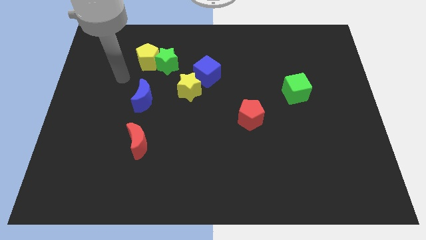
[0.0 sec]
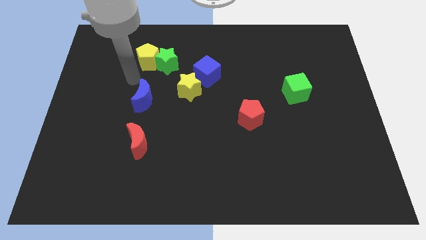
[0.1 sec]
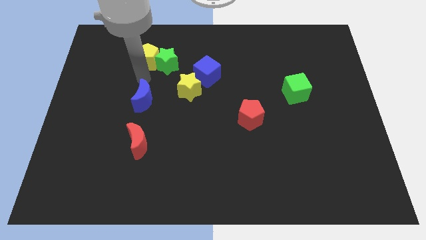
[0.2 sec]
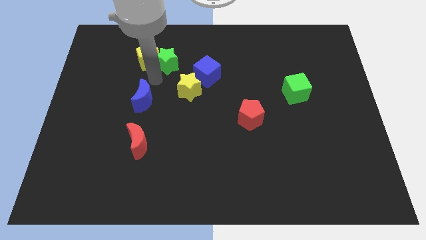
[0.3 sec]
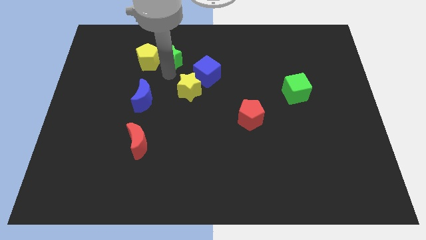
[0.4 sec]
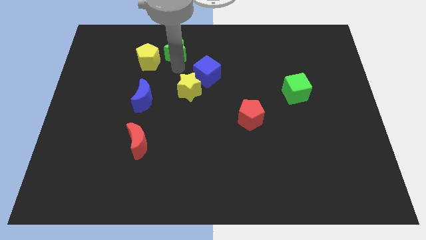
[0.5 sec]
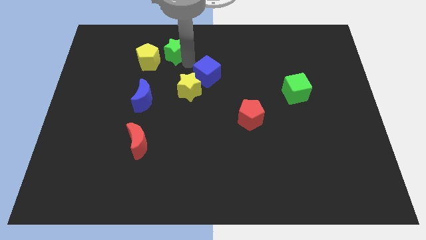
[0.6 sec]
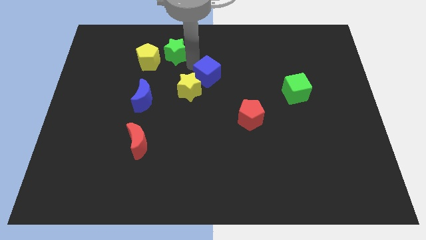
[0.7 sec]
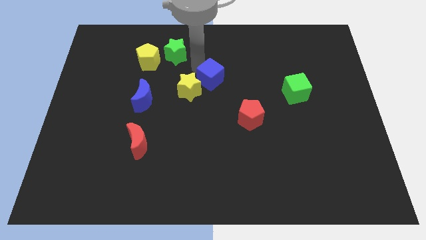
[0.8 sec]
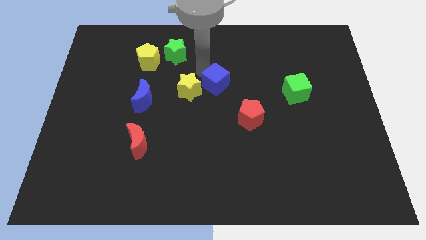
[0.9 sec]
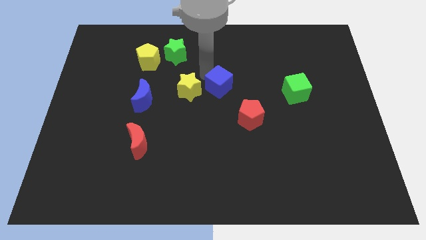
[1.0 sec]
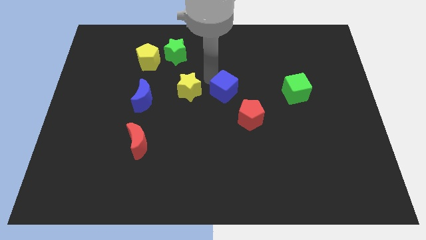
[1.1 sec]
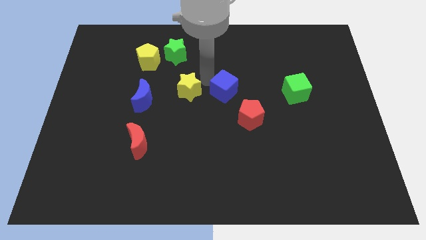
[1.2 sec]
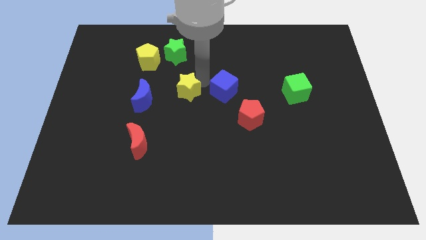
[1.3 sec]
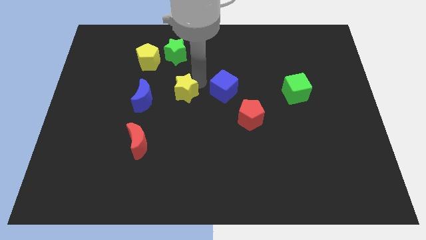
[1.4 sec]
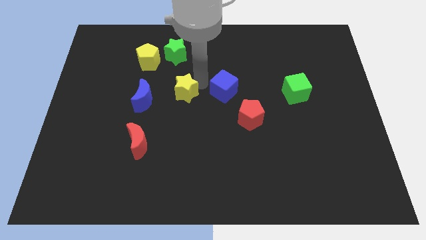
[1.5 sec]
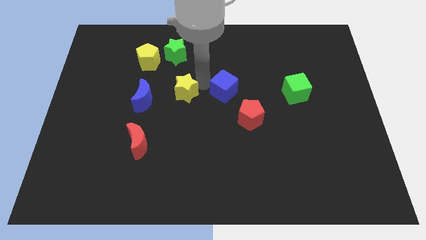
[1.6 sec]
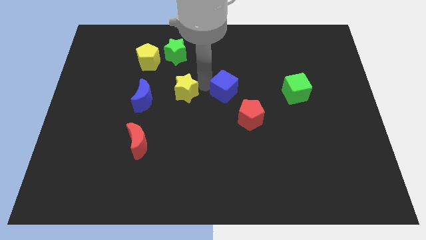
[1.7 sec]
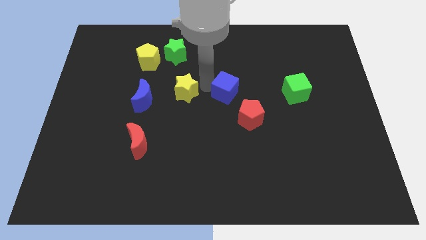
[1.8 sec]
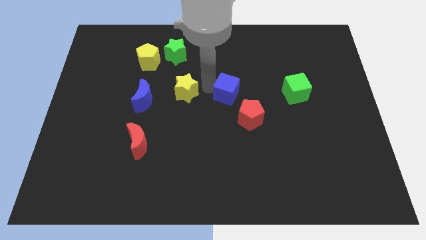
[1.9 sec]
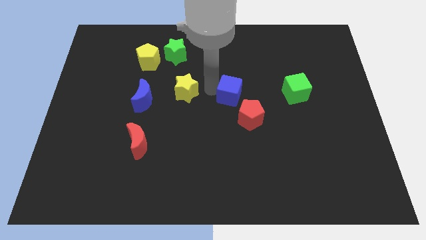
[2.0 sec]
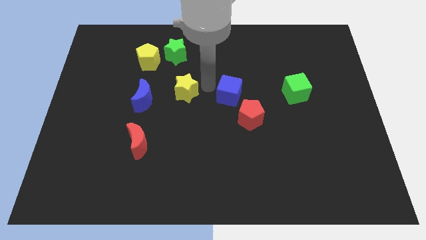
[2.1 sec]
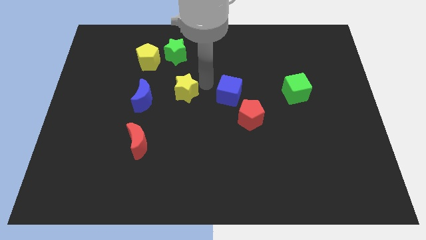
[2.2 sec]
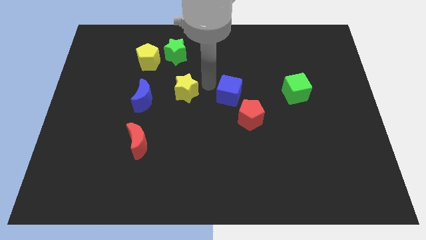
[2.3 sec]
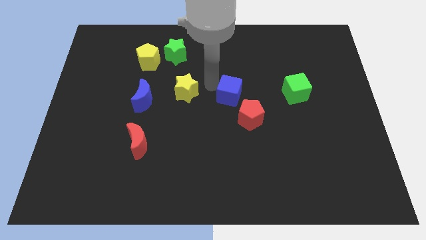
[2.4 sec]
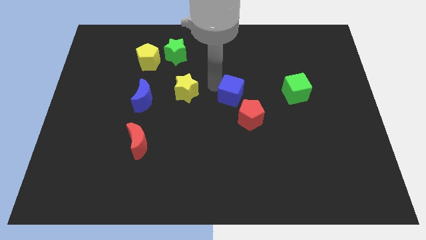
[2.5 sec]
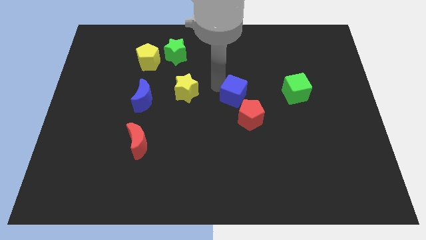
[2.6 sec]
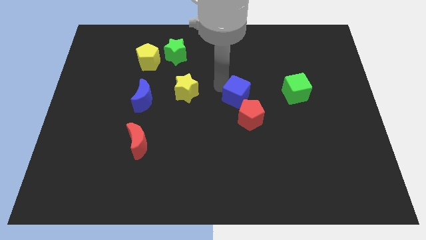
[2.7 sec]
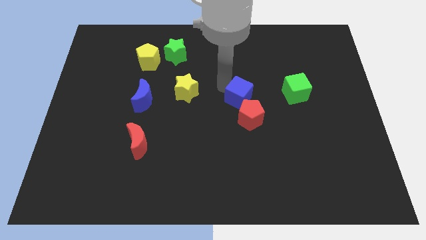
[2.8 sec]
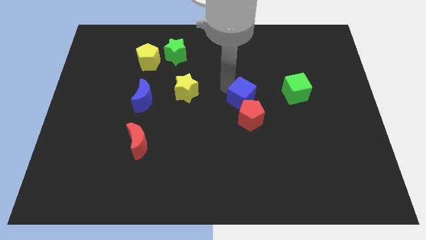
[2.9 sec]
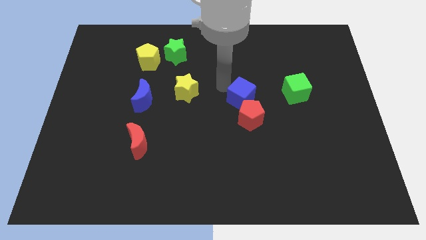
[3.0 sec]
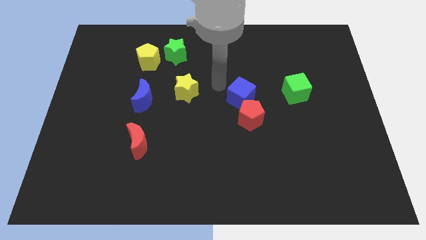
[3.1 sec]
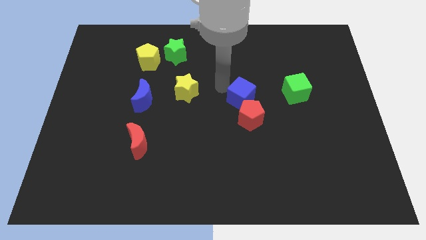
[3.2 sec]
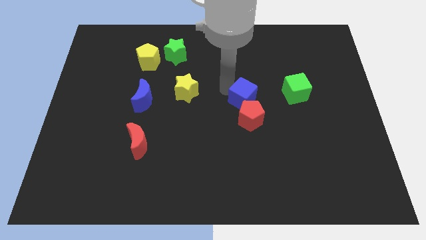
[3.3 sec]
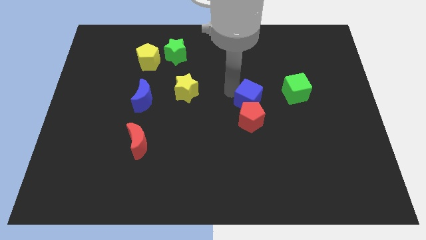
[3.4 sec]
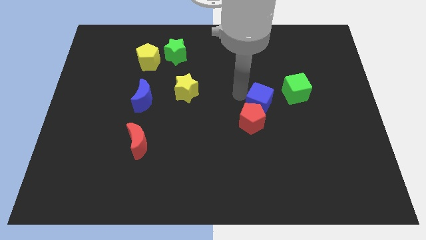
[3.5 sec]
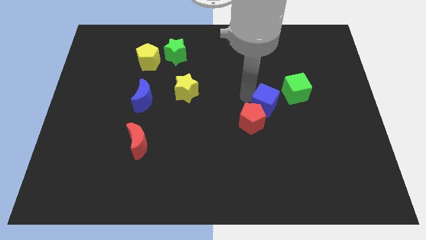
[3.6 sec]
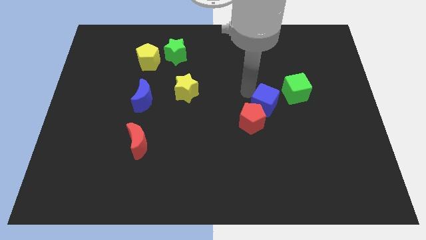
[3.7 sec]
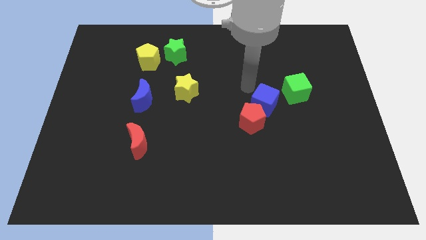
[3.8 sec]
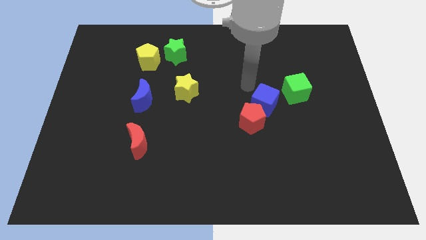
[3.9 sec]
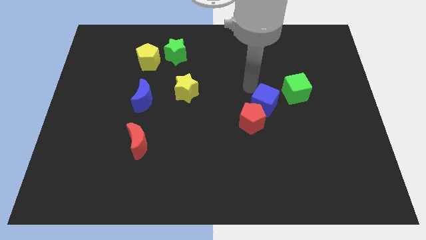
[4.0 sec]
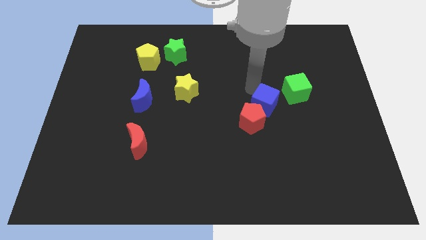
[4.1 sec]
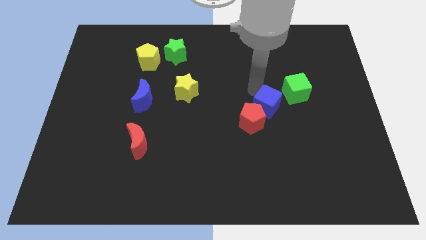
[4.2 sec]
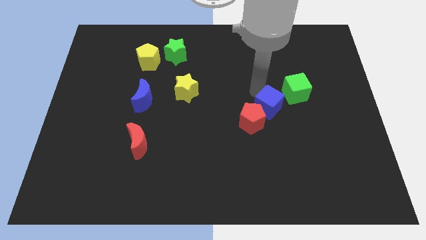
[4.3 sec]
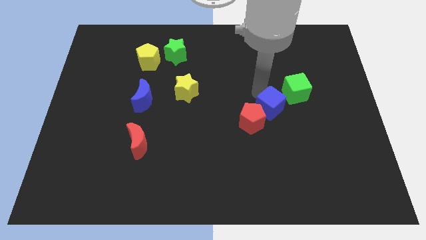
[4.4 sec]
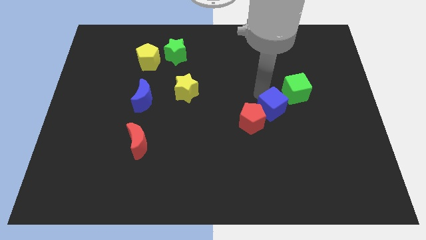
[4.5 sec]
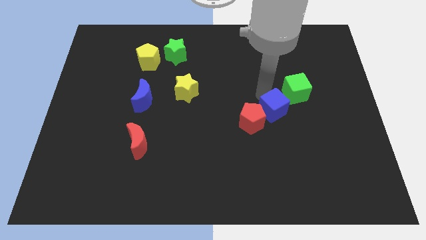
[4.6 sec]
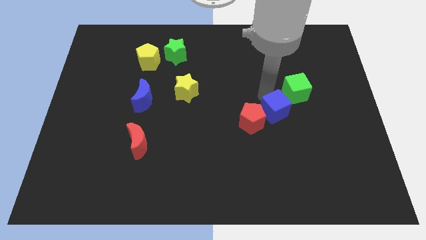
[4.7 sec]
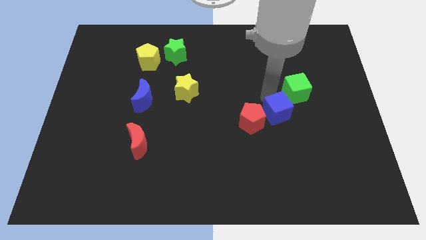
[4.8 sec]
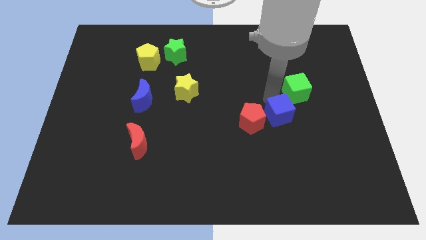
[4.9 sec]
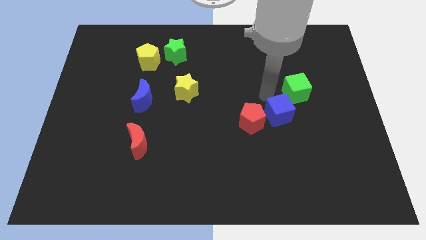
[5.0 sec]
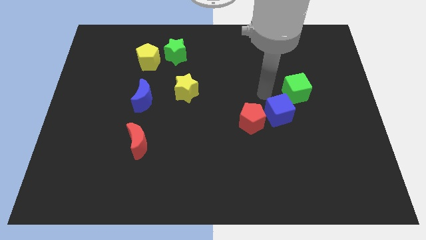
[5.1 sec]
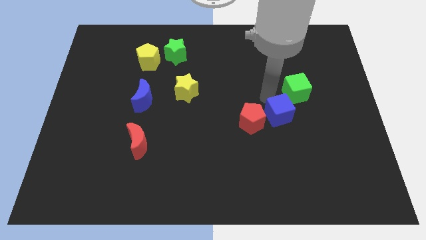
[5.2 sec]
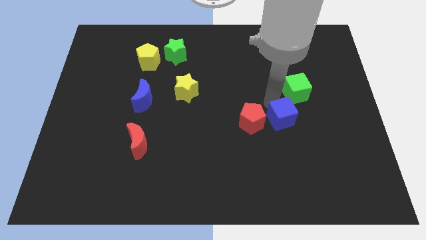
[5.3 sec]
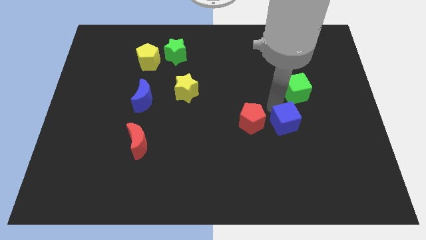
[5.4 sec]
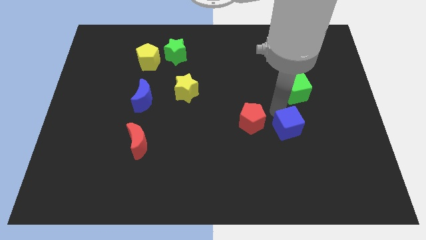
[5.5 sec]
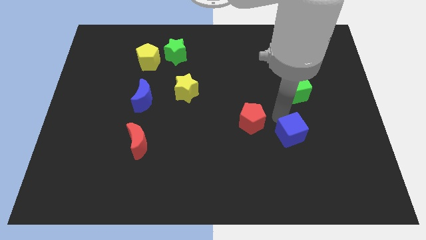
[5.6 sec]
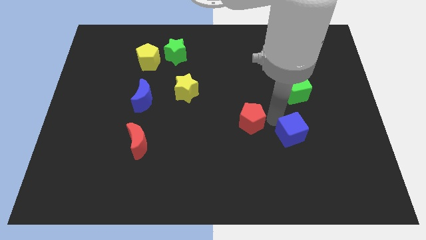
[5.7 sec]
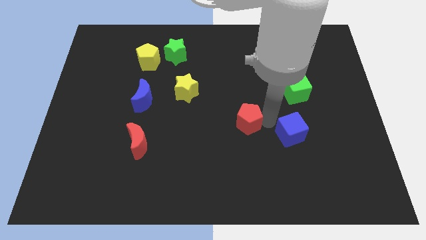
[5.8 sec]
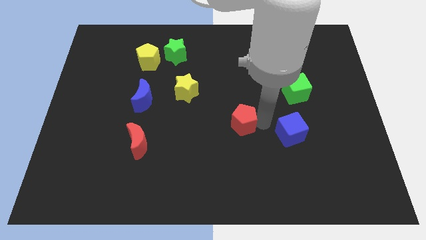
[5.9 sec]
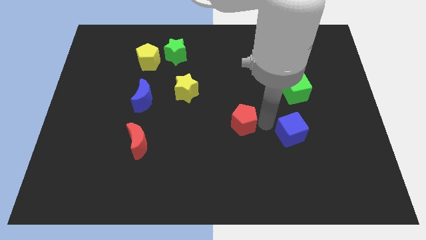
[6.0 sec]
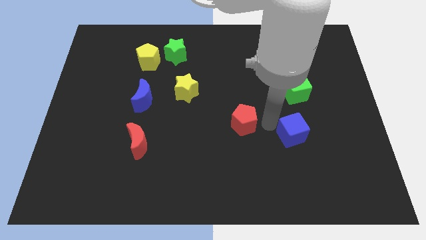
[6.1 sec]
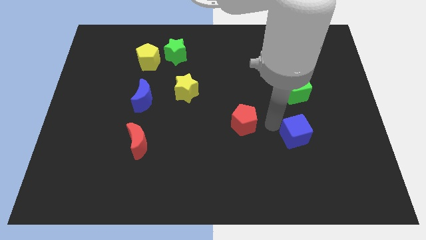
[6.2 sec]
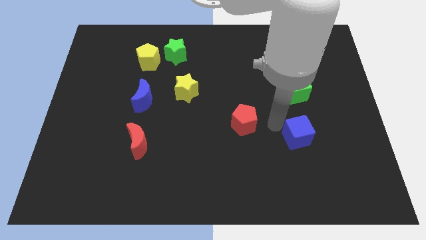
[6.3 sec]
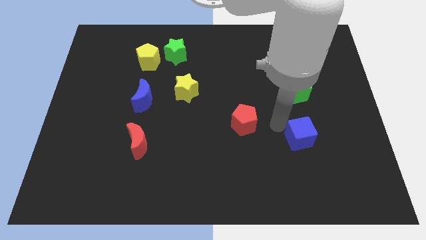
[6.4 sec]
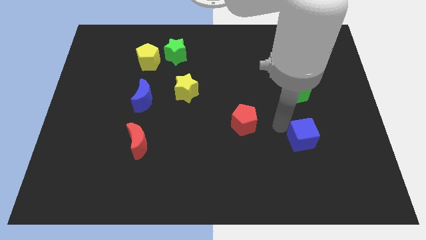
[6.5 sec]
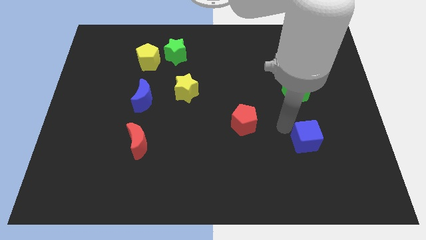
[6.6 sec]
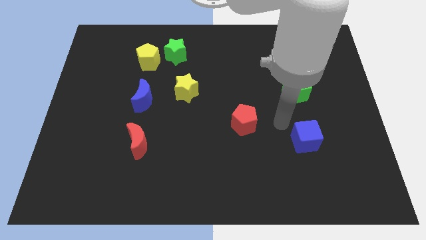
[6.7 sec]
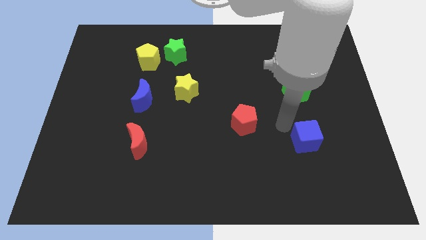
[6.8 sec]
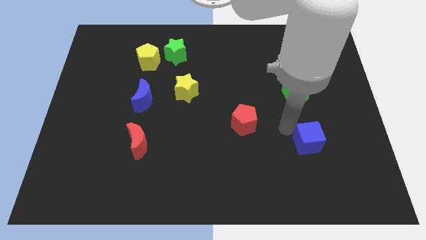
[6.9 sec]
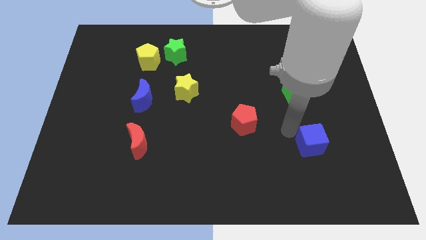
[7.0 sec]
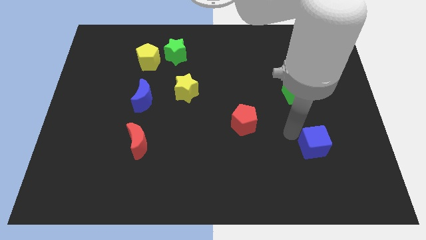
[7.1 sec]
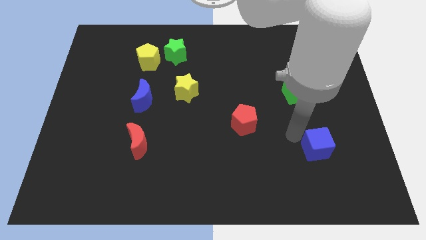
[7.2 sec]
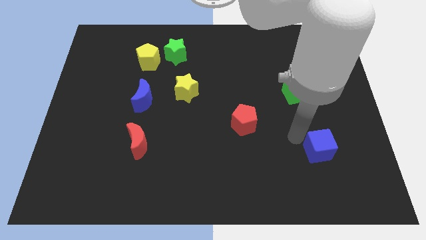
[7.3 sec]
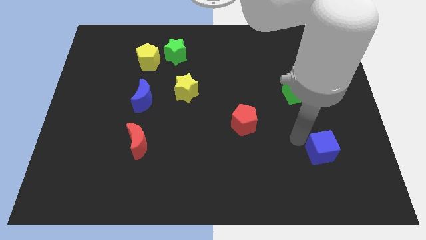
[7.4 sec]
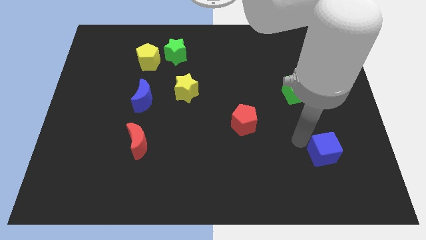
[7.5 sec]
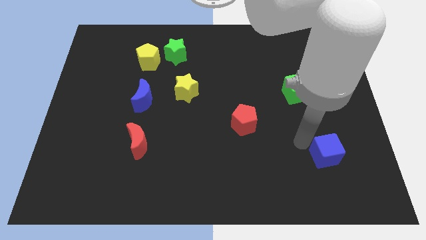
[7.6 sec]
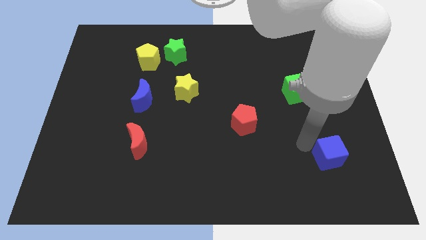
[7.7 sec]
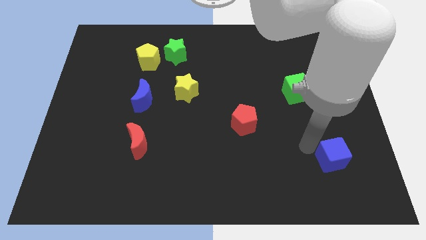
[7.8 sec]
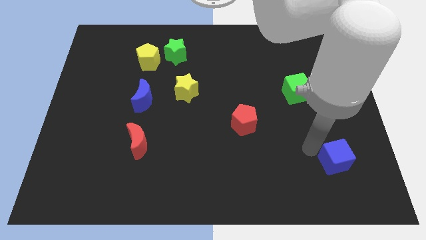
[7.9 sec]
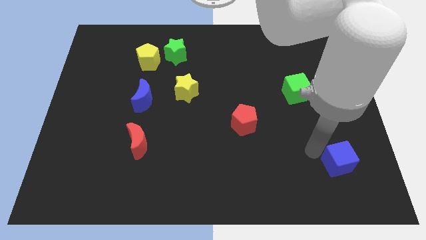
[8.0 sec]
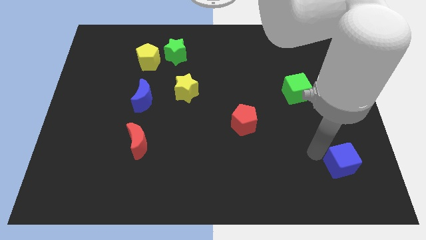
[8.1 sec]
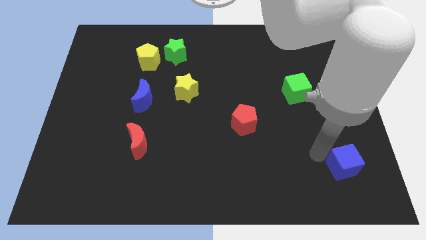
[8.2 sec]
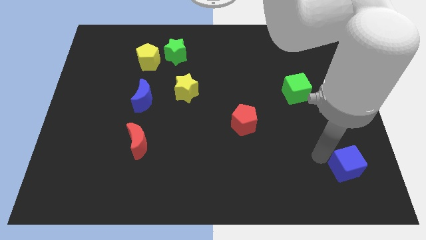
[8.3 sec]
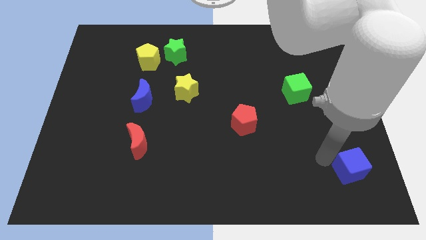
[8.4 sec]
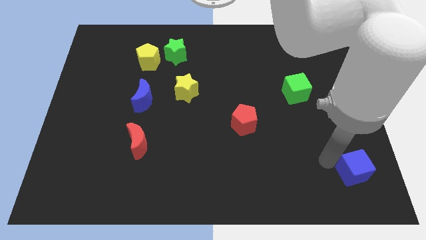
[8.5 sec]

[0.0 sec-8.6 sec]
slide the blue cube to the bottom right corner
